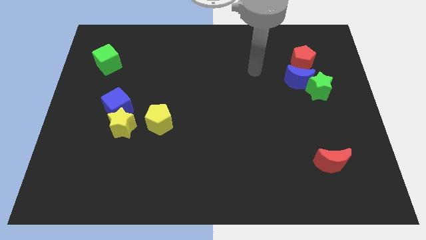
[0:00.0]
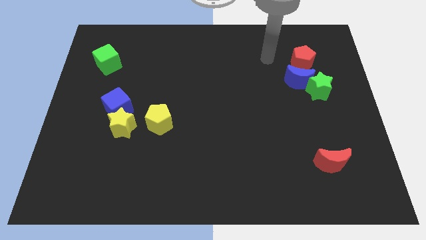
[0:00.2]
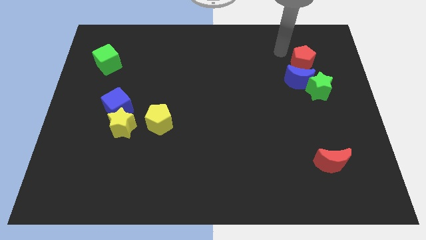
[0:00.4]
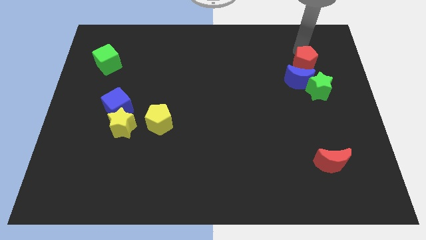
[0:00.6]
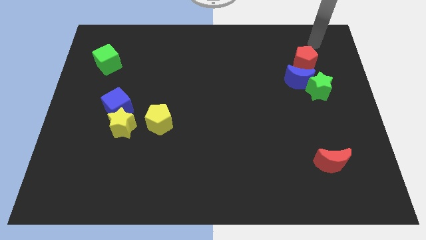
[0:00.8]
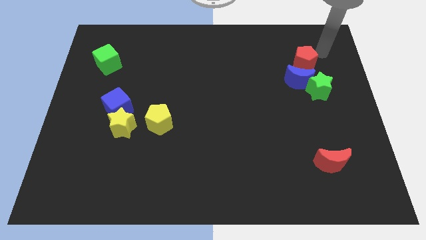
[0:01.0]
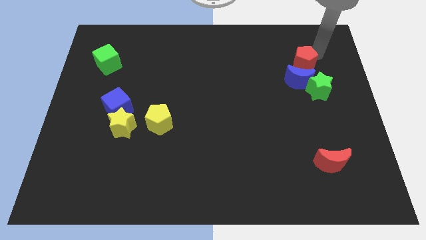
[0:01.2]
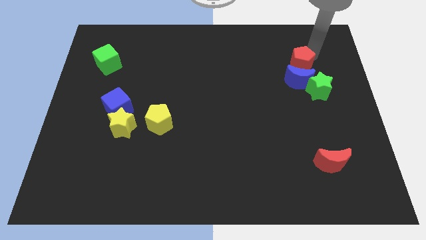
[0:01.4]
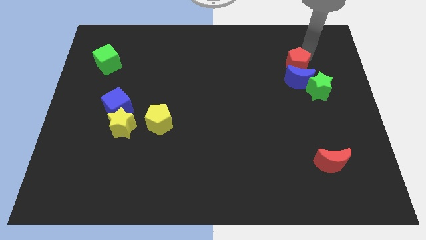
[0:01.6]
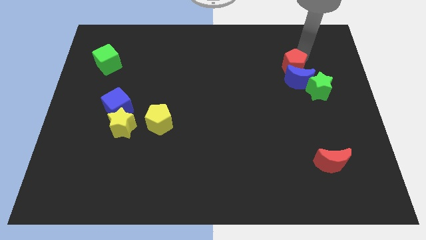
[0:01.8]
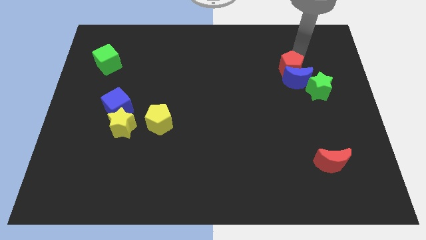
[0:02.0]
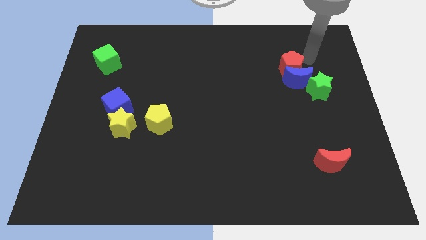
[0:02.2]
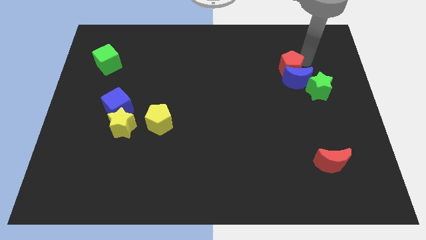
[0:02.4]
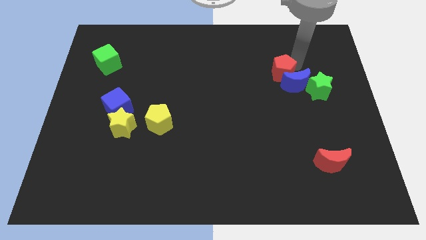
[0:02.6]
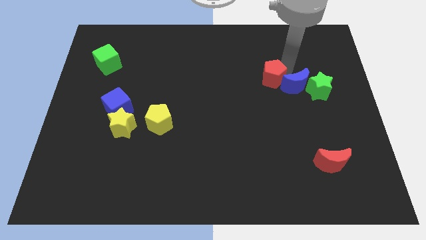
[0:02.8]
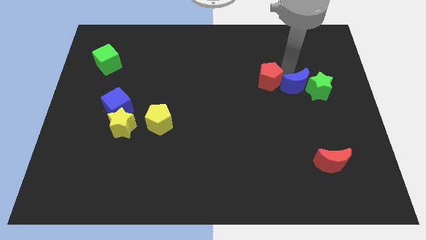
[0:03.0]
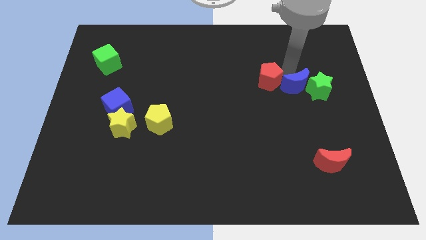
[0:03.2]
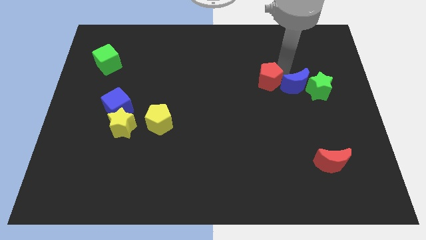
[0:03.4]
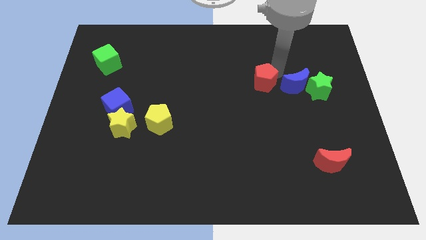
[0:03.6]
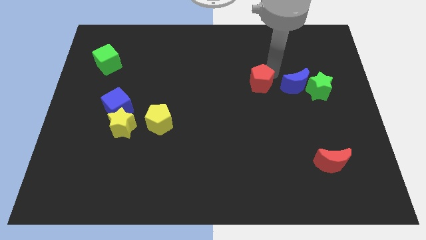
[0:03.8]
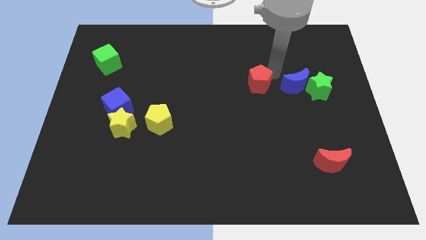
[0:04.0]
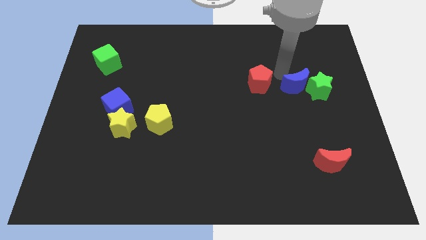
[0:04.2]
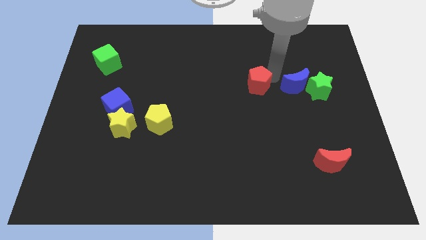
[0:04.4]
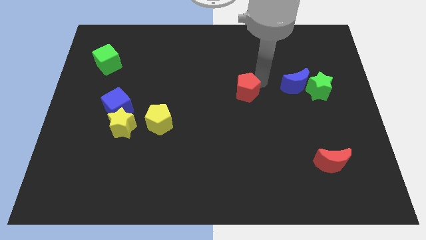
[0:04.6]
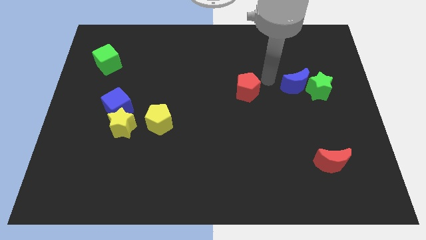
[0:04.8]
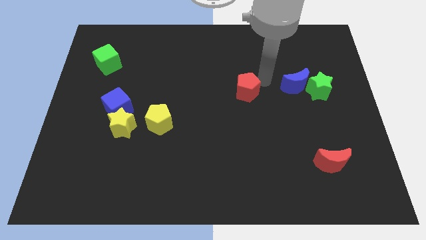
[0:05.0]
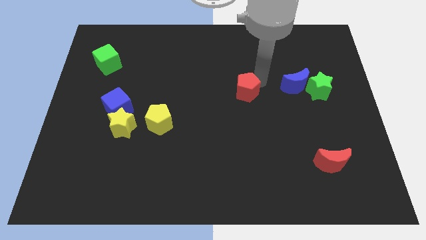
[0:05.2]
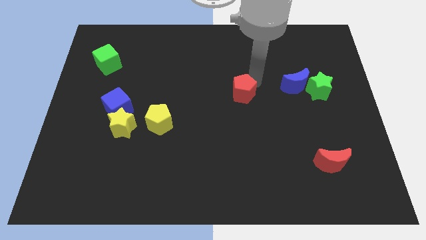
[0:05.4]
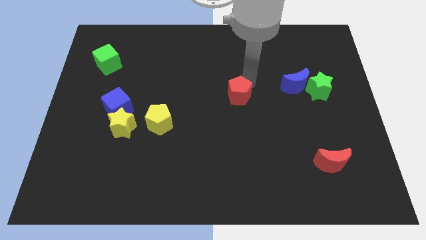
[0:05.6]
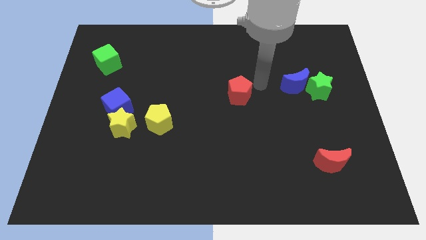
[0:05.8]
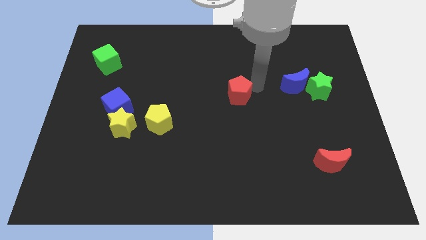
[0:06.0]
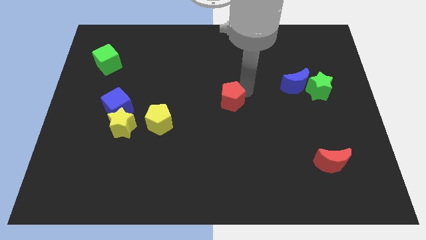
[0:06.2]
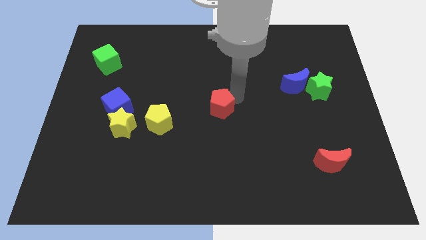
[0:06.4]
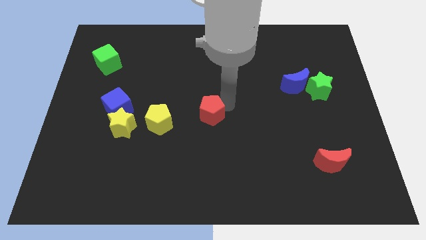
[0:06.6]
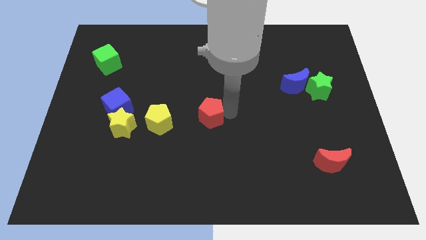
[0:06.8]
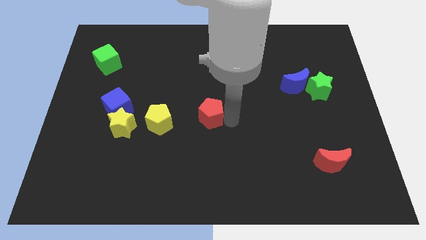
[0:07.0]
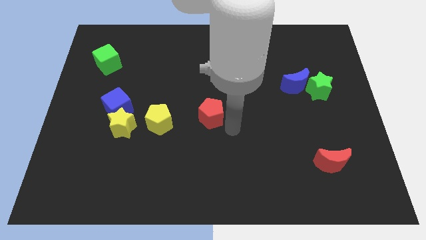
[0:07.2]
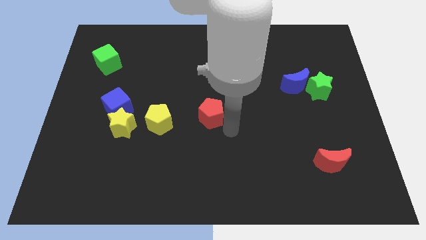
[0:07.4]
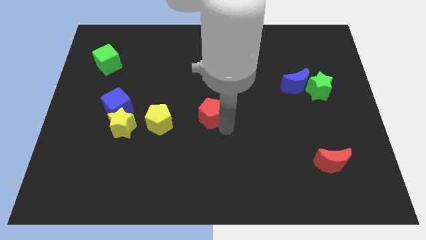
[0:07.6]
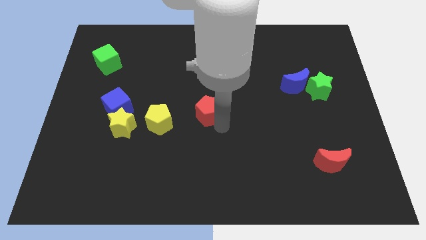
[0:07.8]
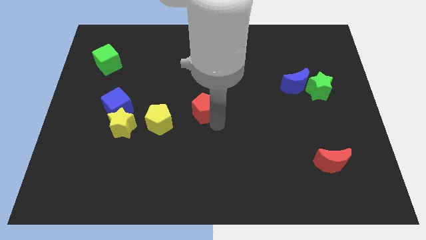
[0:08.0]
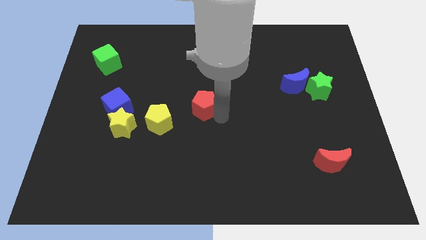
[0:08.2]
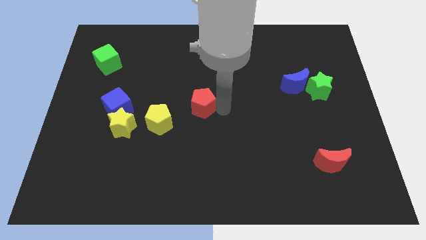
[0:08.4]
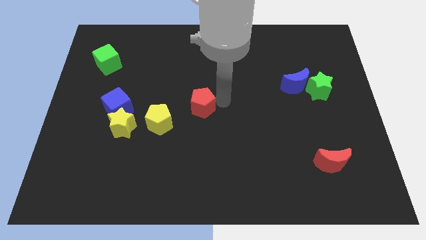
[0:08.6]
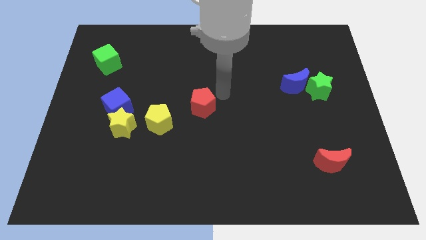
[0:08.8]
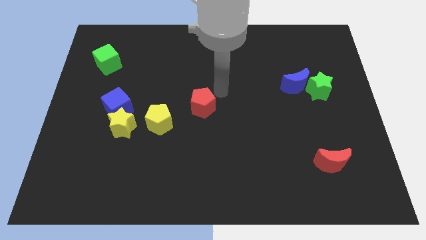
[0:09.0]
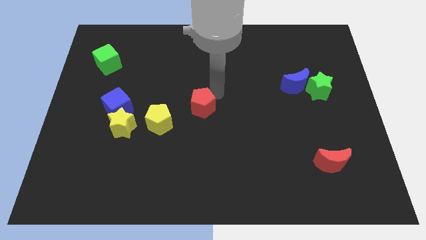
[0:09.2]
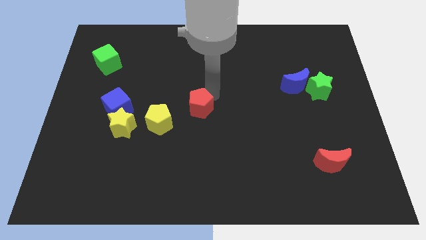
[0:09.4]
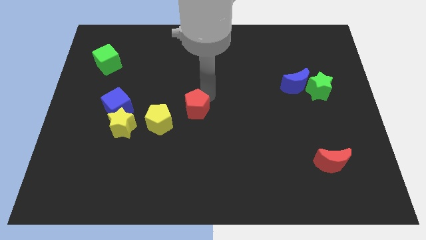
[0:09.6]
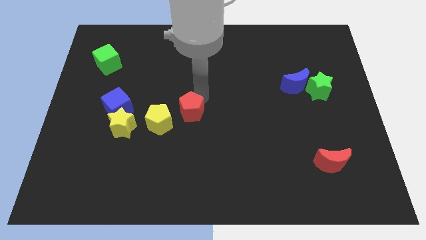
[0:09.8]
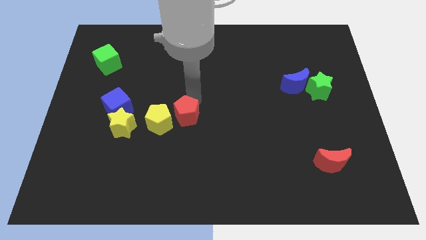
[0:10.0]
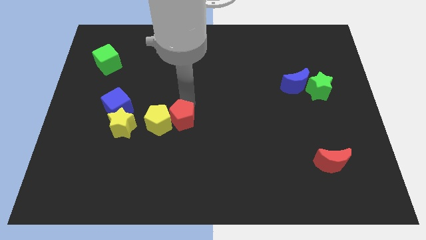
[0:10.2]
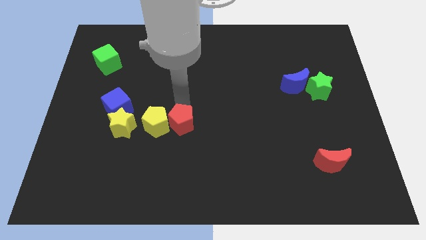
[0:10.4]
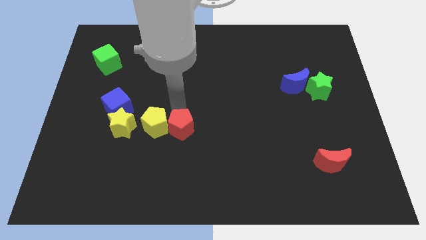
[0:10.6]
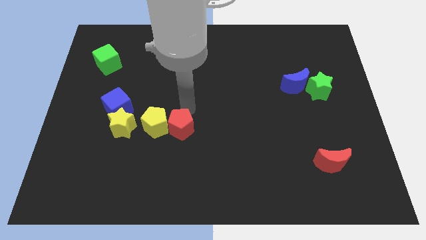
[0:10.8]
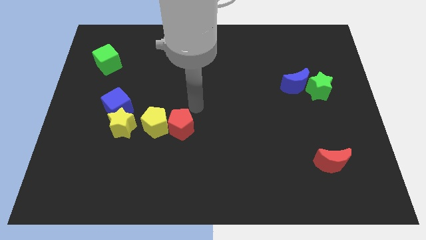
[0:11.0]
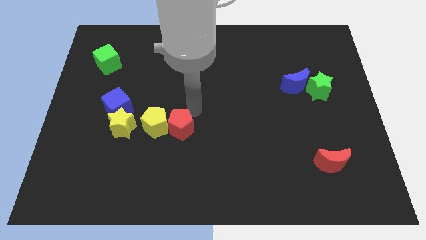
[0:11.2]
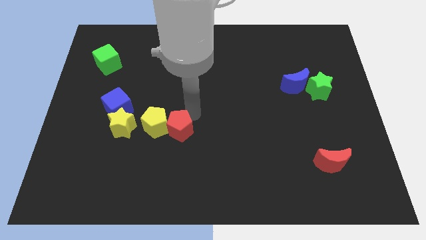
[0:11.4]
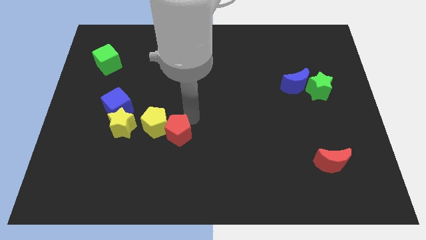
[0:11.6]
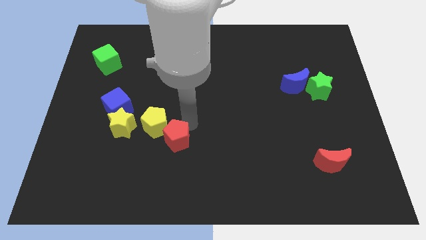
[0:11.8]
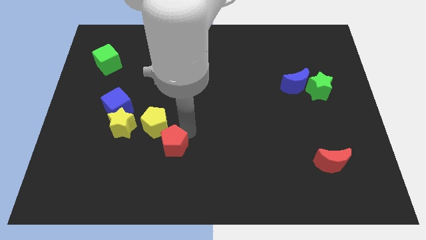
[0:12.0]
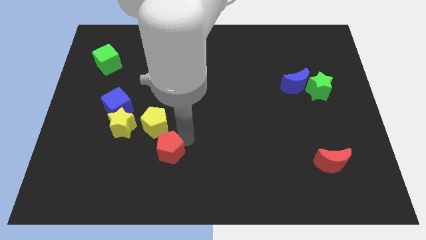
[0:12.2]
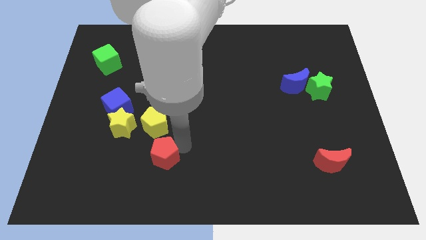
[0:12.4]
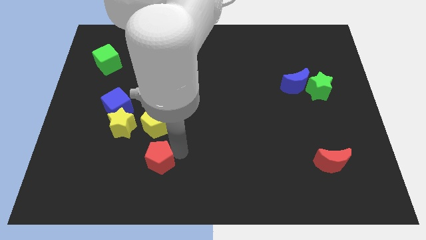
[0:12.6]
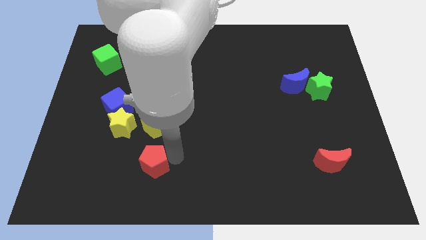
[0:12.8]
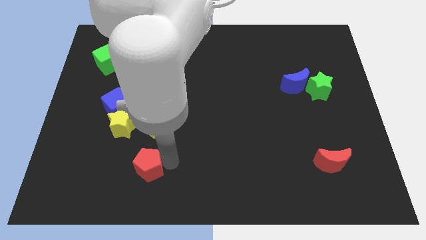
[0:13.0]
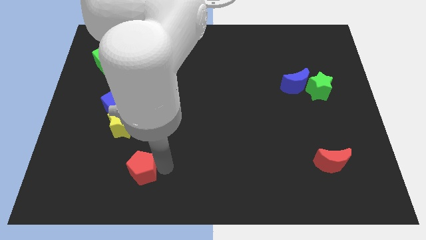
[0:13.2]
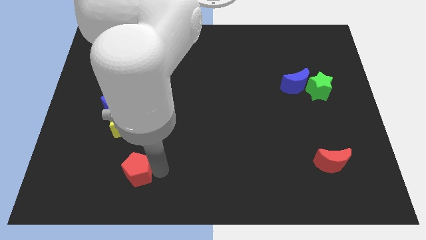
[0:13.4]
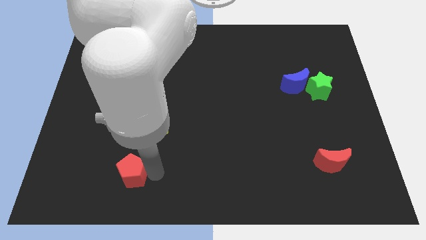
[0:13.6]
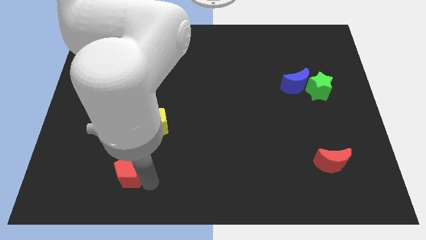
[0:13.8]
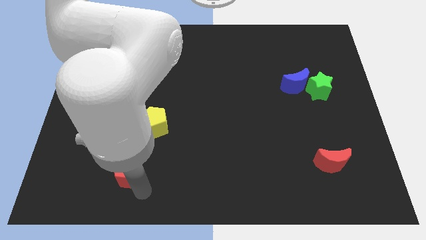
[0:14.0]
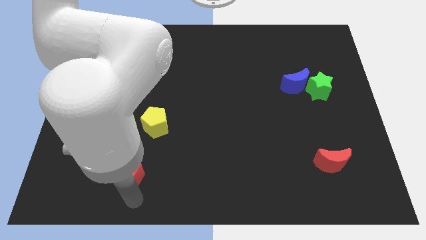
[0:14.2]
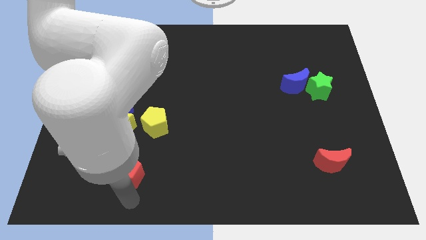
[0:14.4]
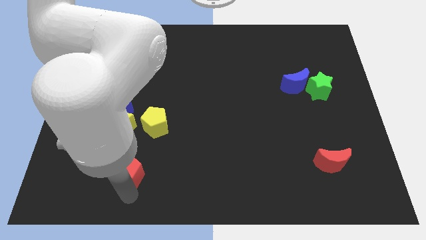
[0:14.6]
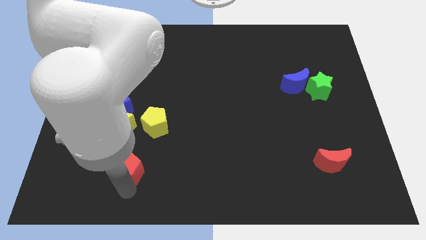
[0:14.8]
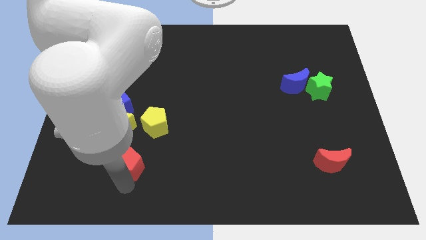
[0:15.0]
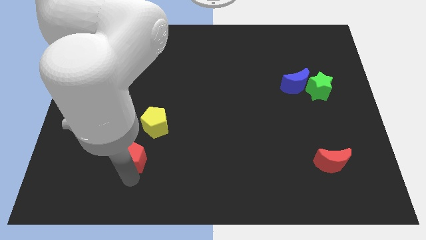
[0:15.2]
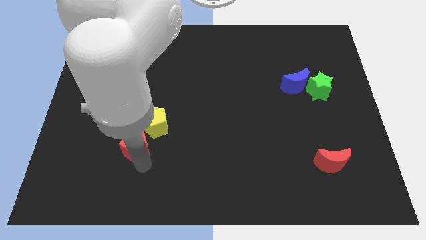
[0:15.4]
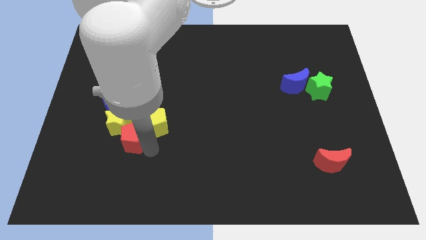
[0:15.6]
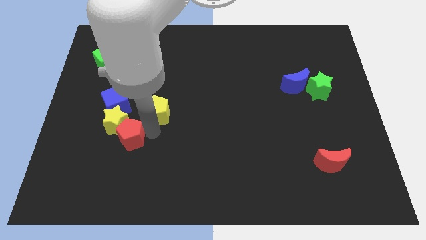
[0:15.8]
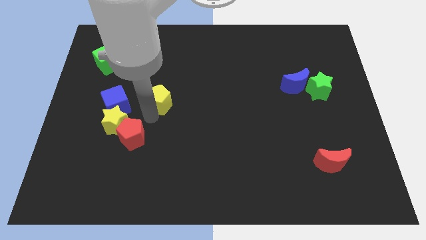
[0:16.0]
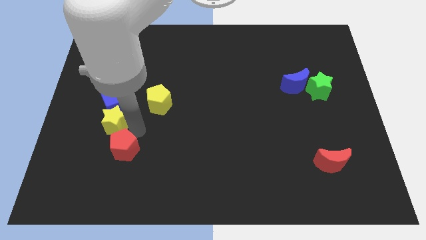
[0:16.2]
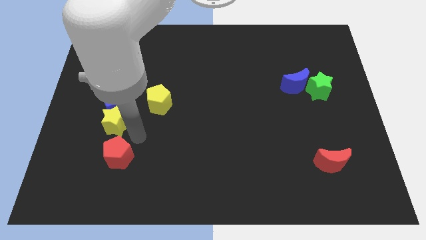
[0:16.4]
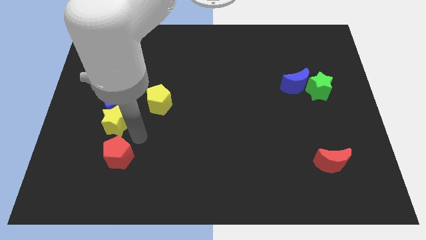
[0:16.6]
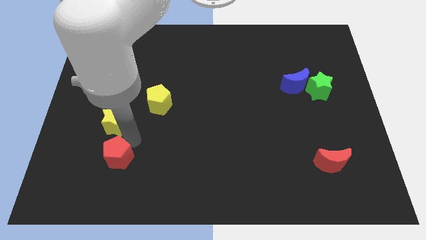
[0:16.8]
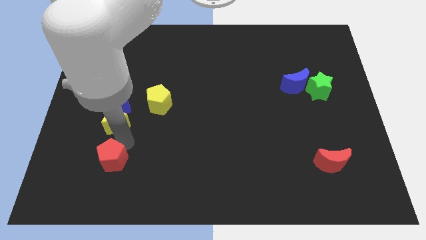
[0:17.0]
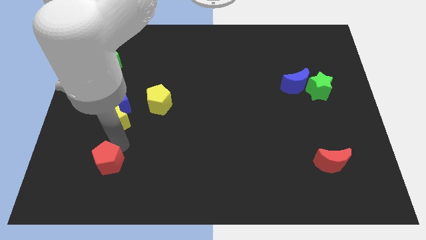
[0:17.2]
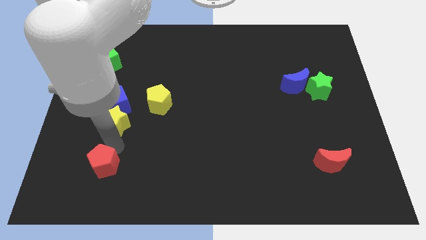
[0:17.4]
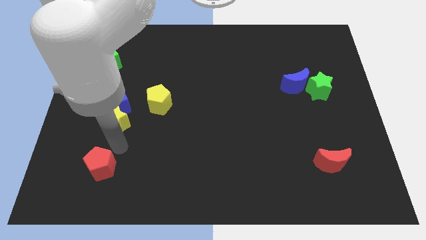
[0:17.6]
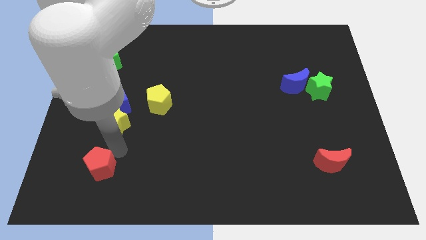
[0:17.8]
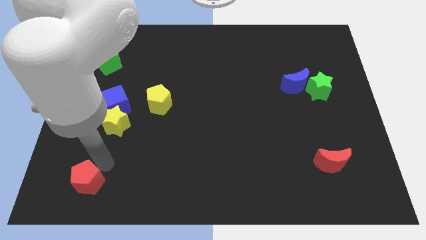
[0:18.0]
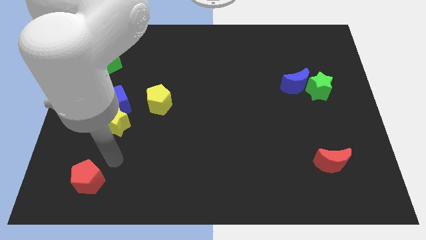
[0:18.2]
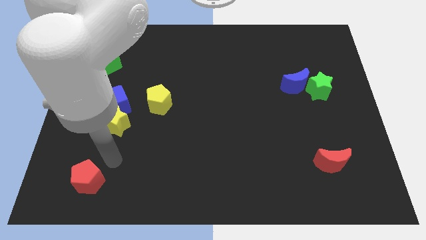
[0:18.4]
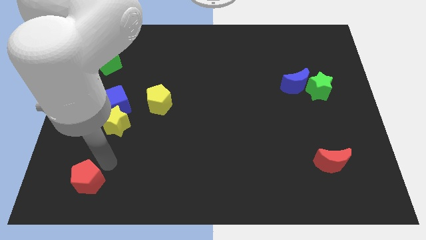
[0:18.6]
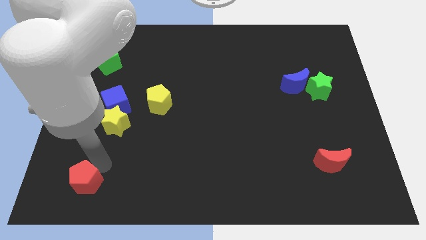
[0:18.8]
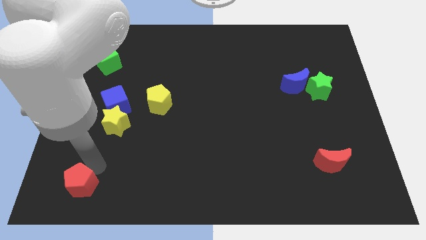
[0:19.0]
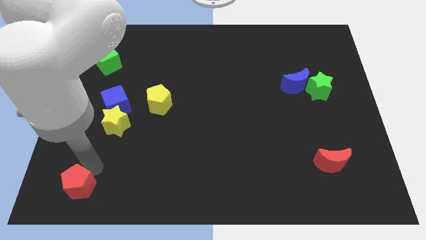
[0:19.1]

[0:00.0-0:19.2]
slide the red pentagon to the bottom left
